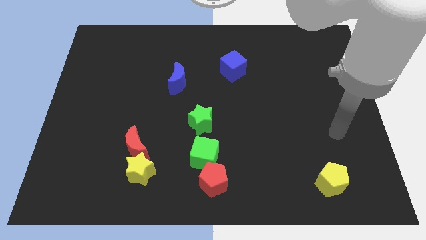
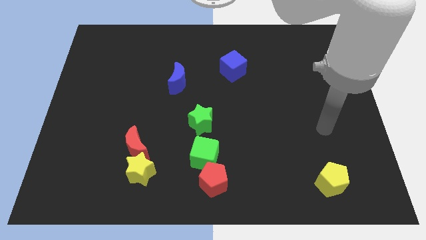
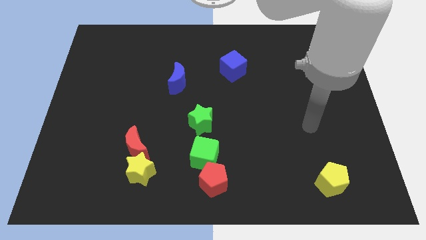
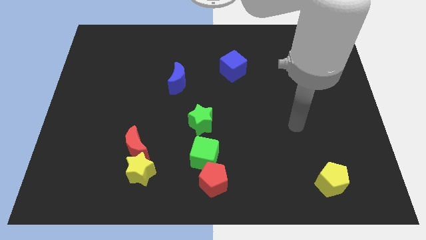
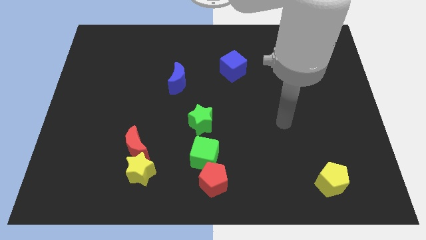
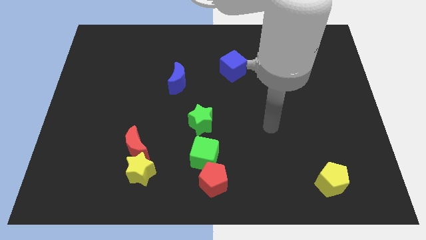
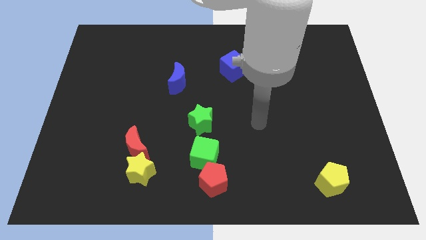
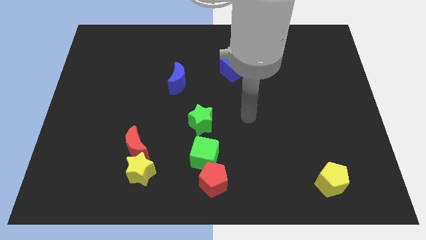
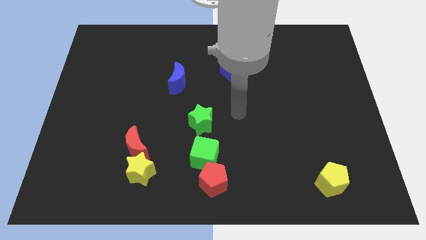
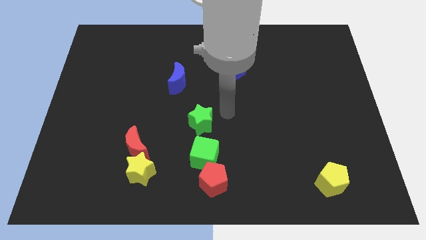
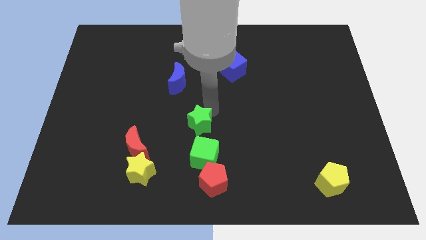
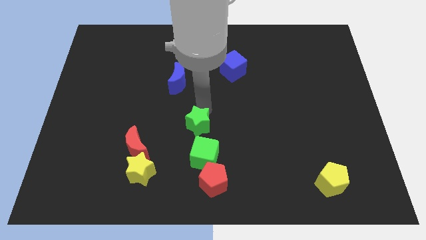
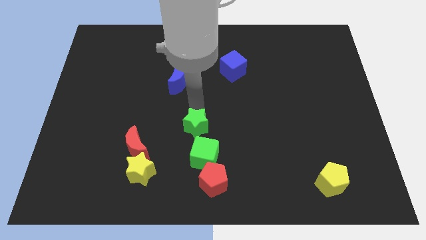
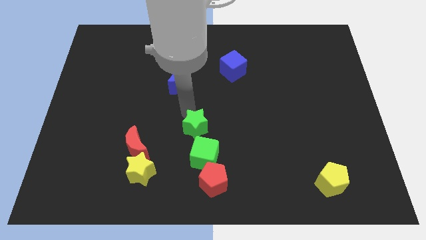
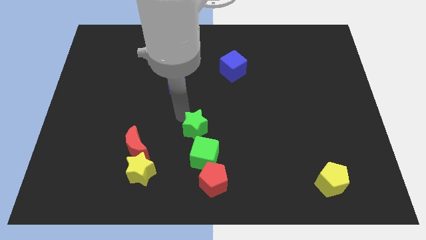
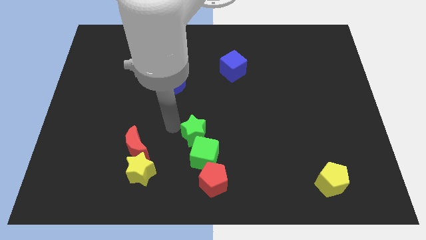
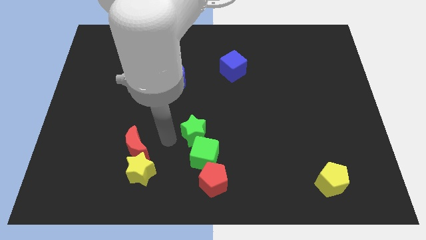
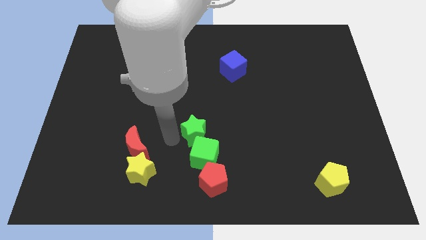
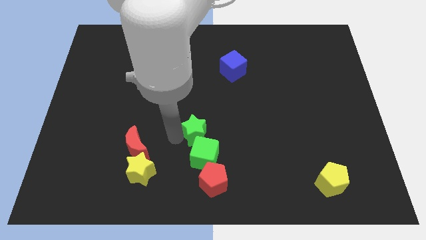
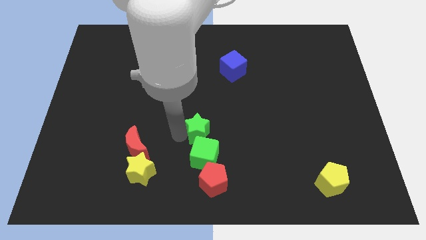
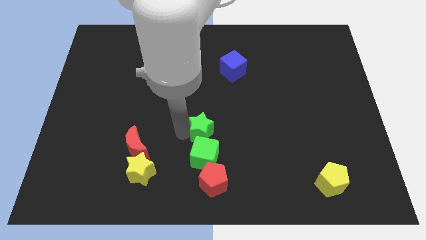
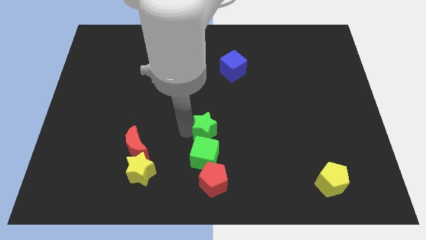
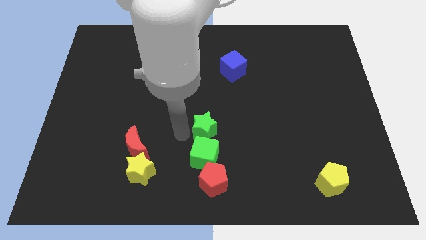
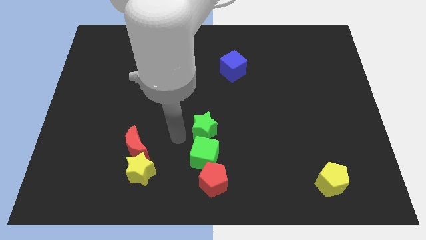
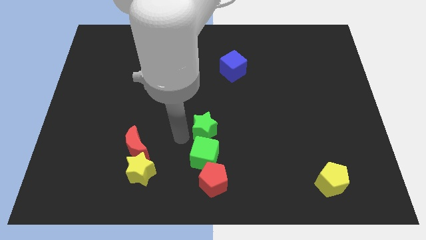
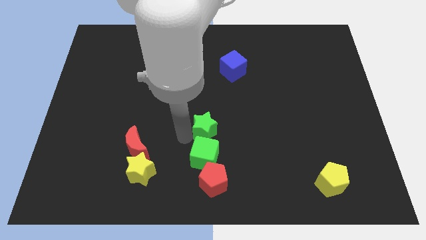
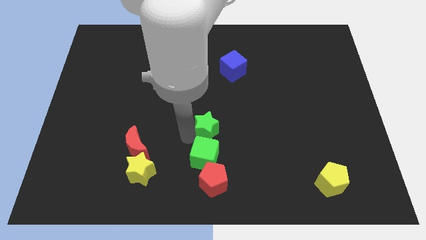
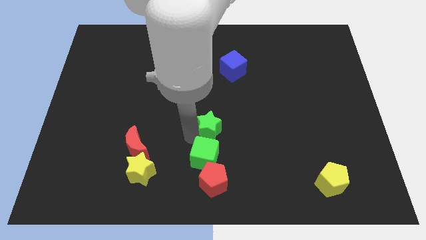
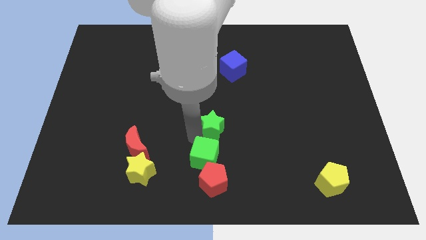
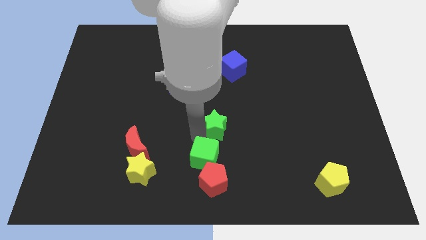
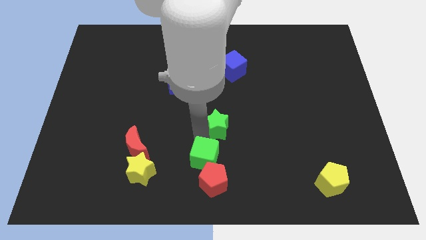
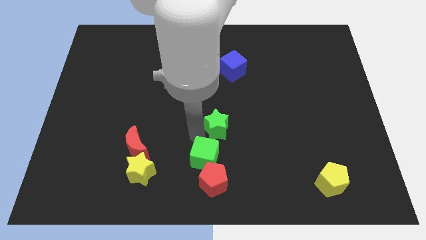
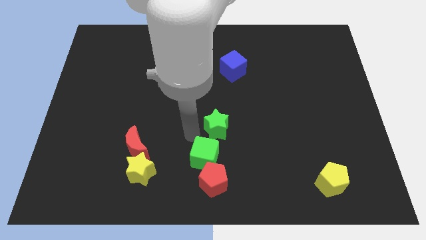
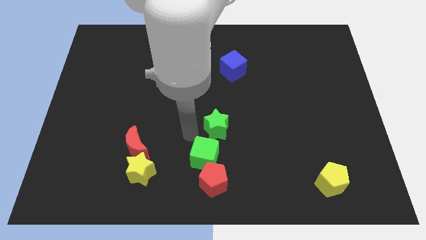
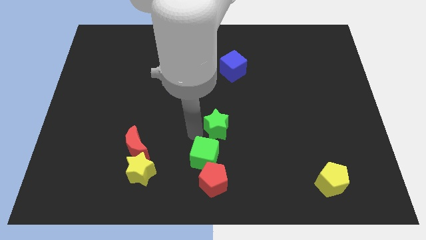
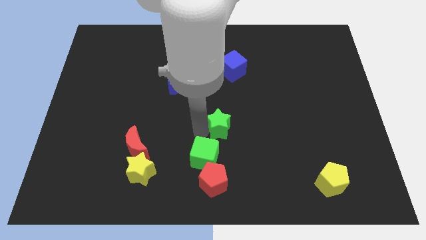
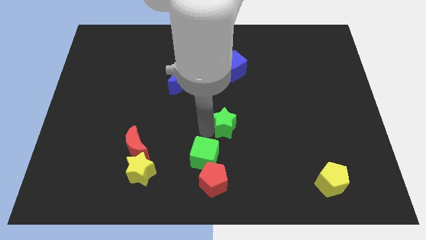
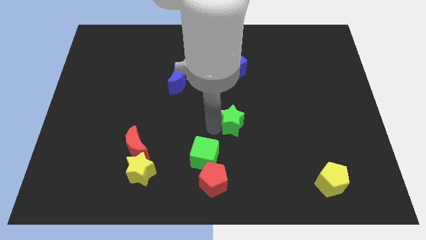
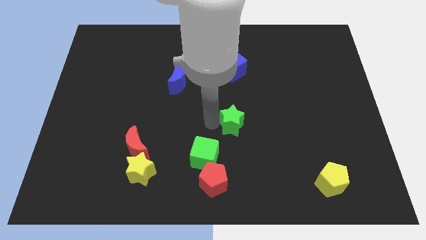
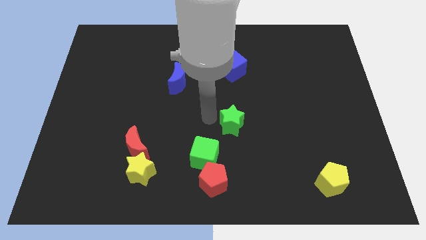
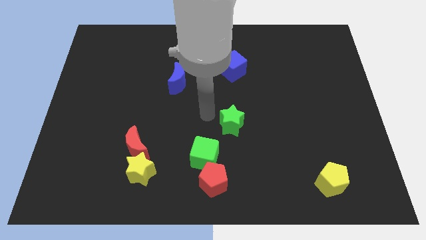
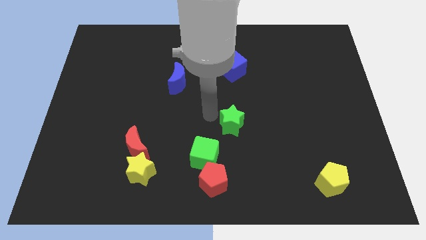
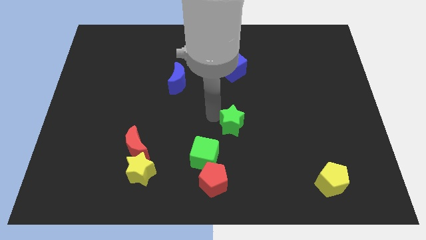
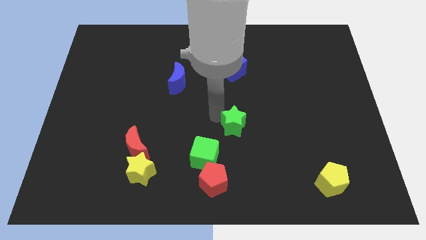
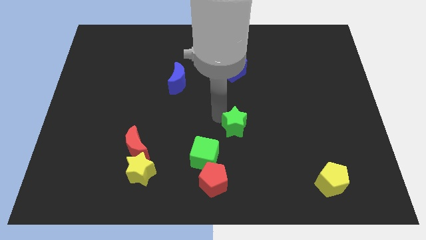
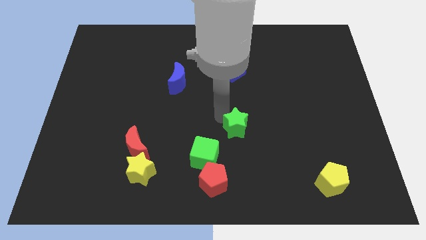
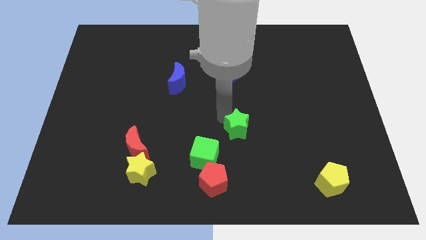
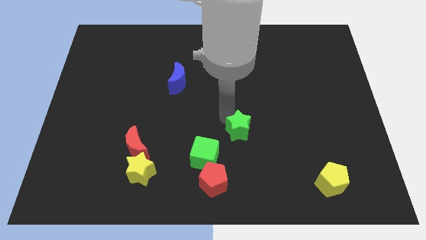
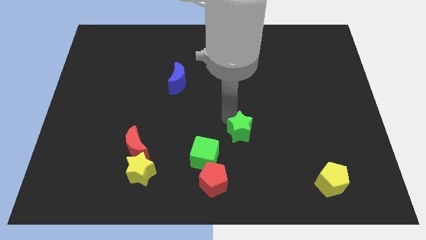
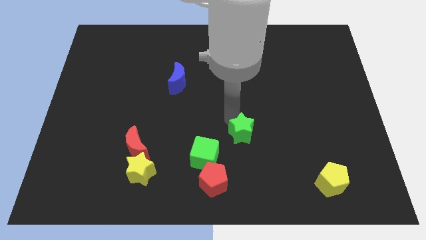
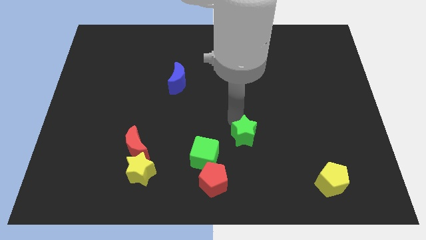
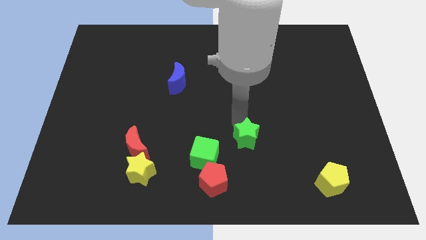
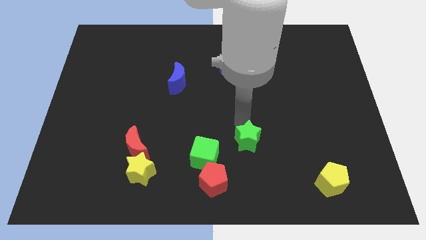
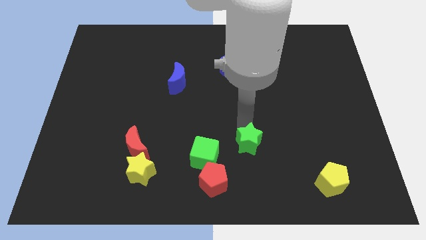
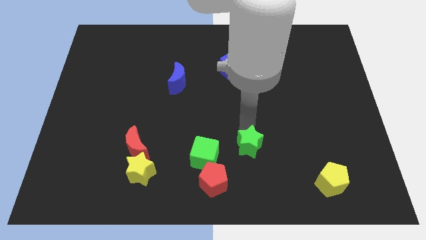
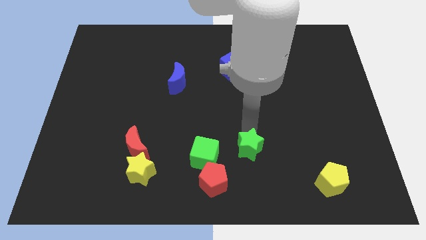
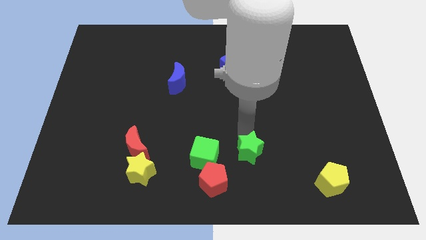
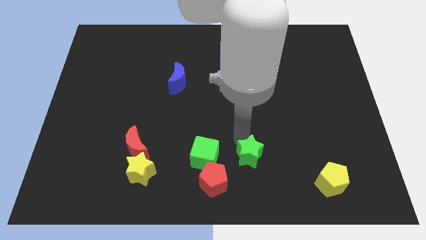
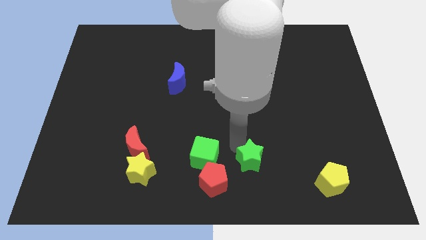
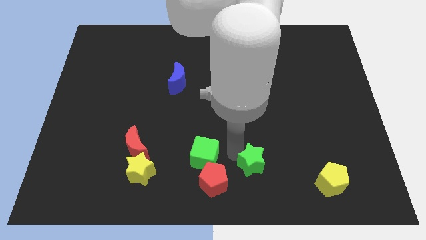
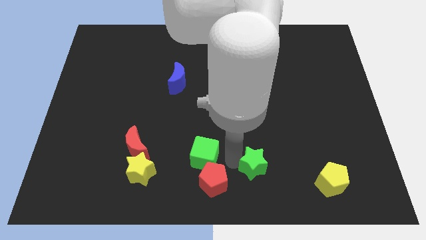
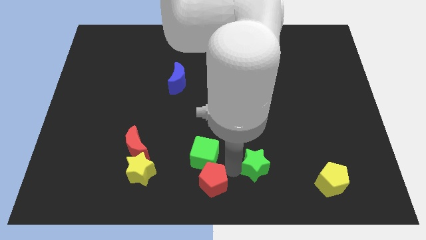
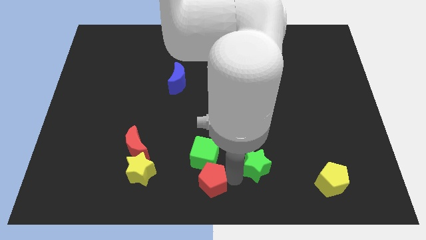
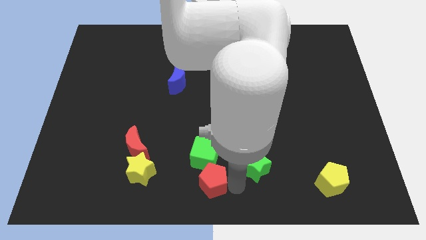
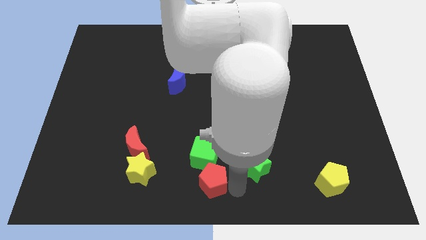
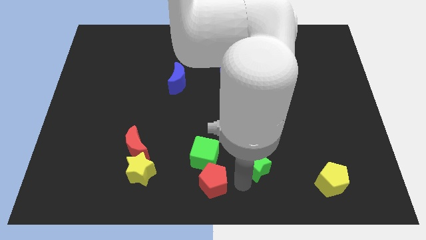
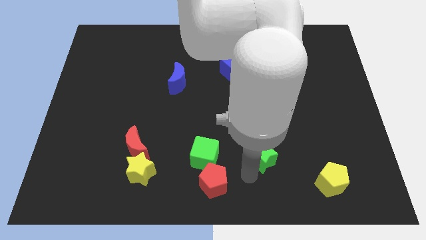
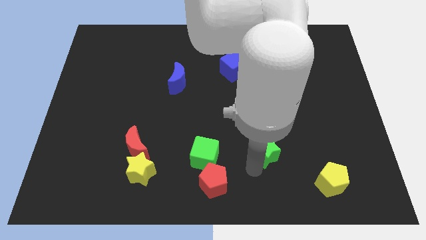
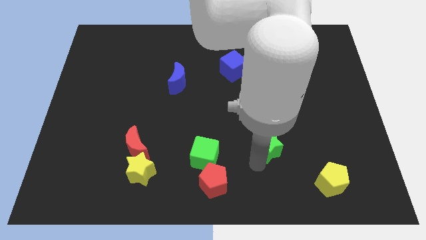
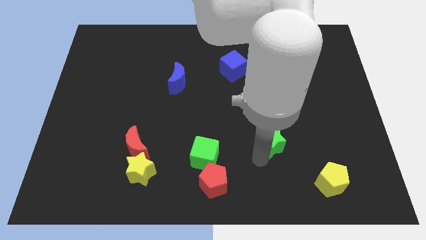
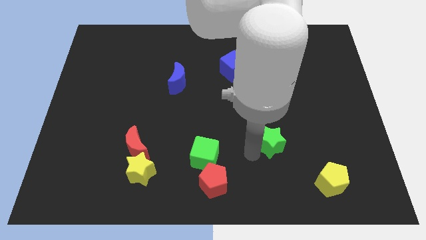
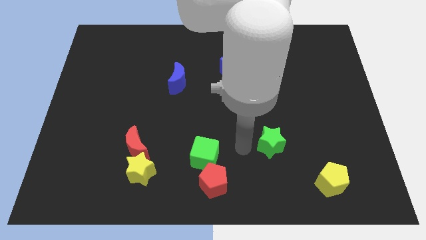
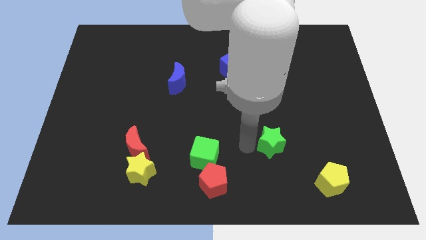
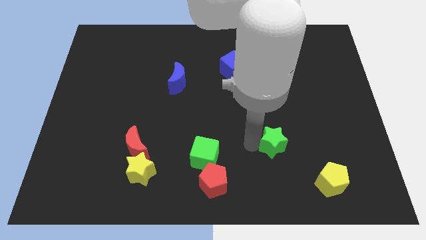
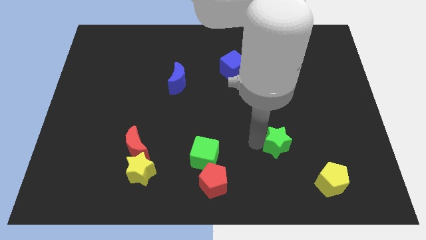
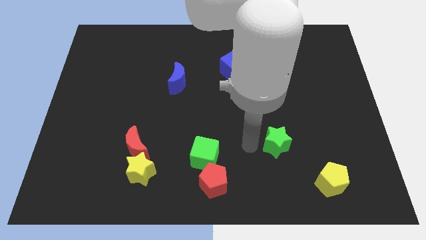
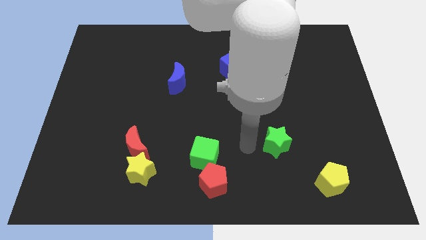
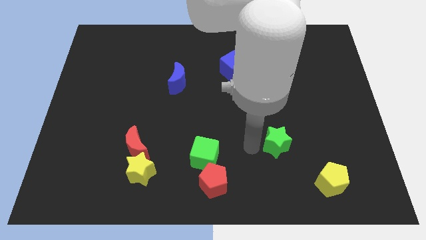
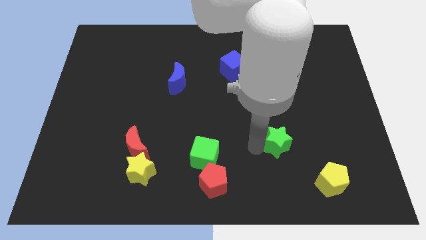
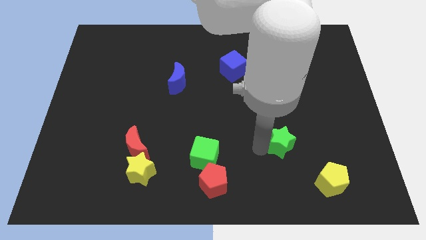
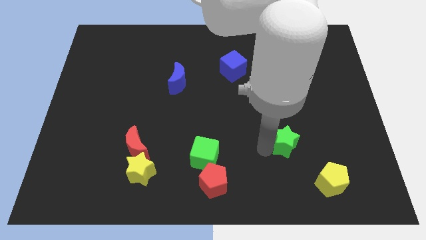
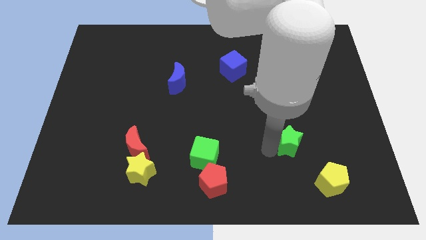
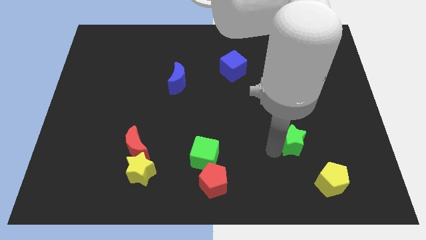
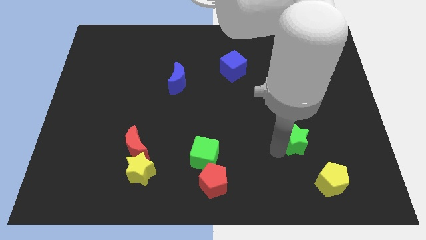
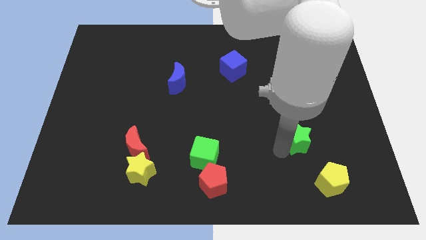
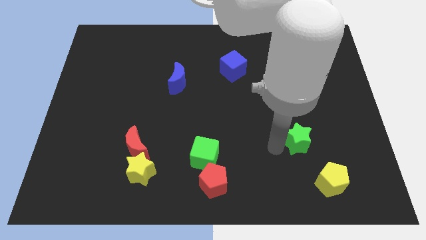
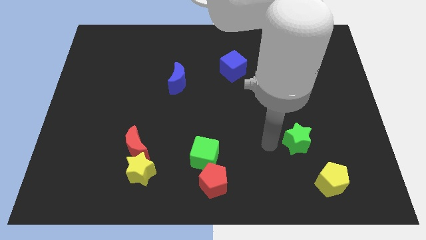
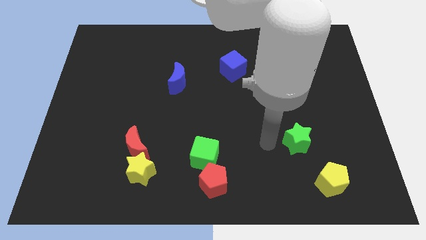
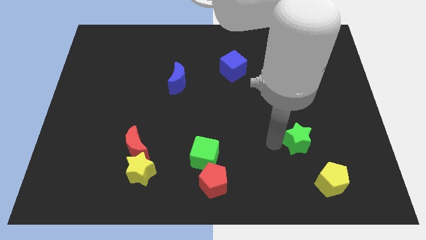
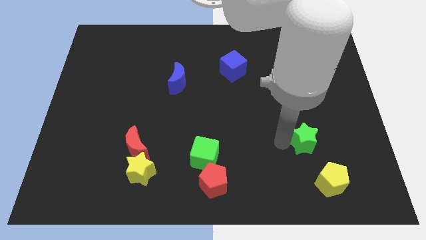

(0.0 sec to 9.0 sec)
push the green star above the yellow pentagon
